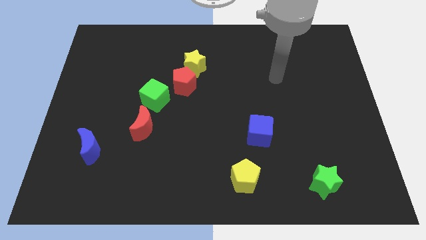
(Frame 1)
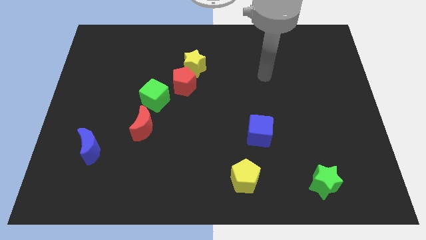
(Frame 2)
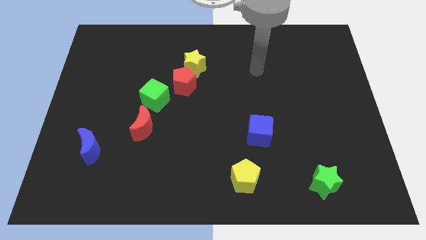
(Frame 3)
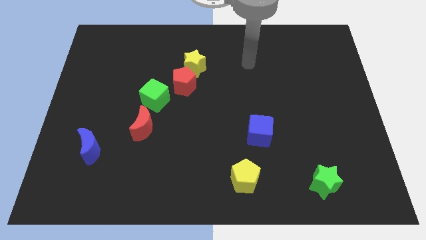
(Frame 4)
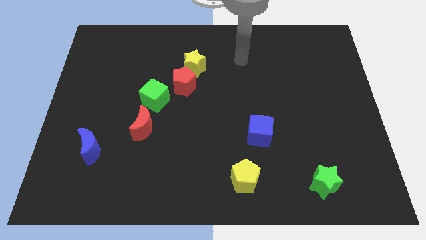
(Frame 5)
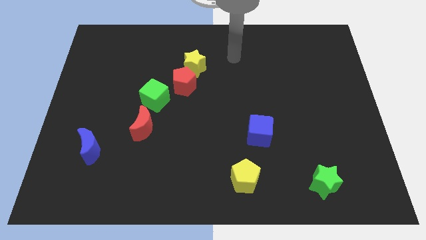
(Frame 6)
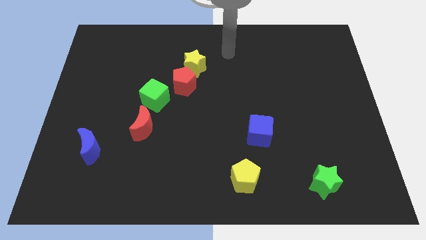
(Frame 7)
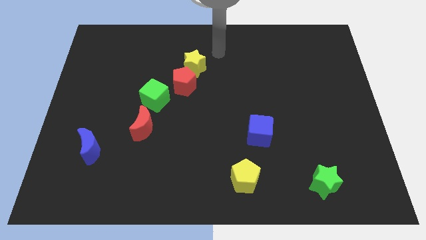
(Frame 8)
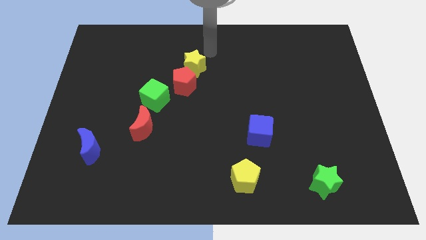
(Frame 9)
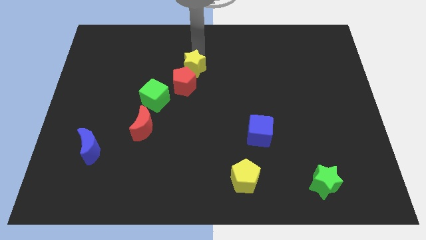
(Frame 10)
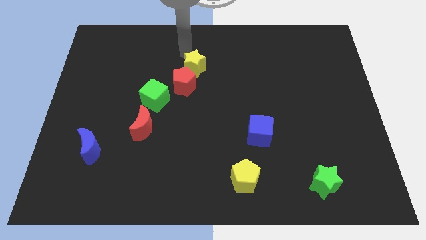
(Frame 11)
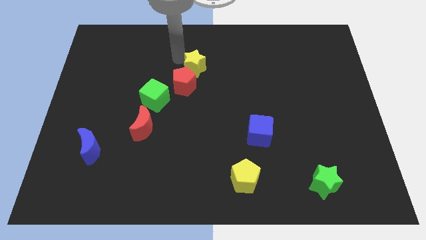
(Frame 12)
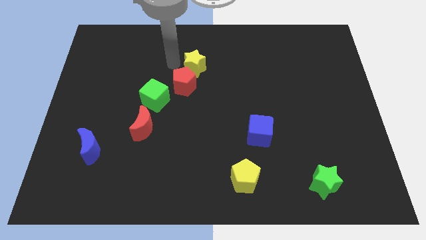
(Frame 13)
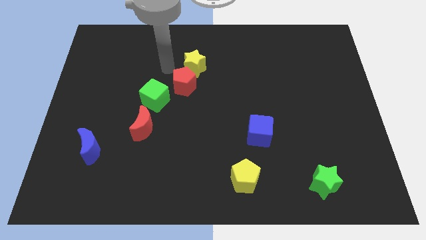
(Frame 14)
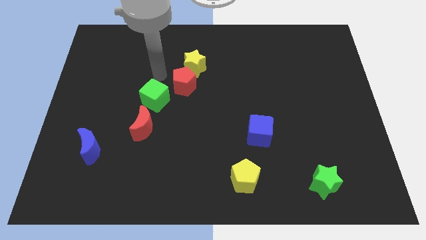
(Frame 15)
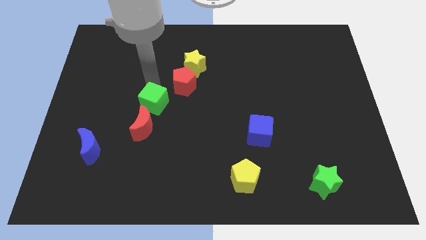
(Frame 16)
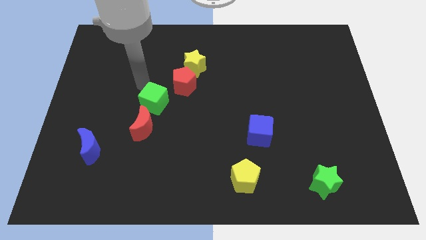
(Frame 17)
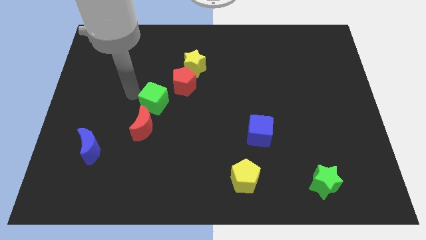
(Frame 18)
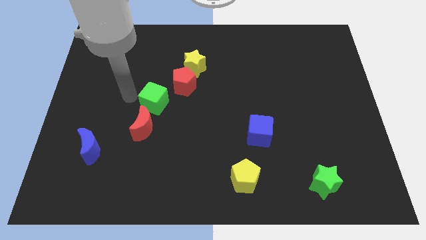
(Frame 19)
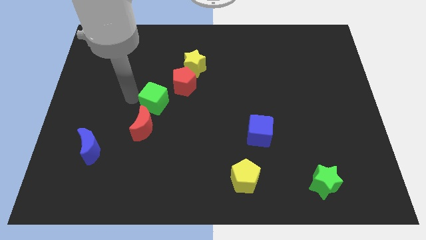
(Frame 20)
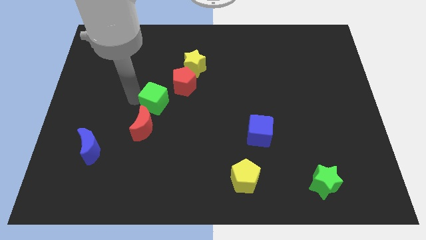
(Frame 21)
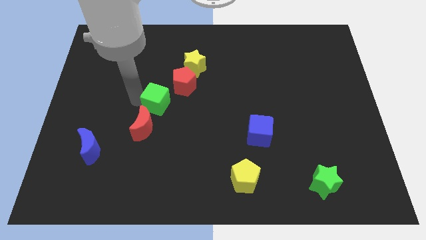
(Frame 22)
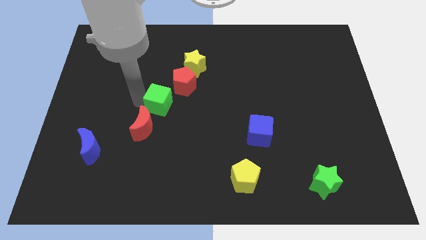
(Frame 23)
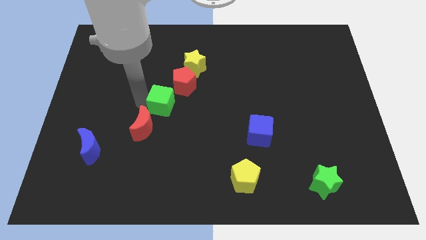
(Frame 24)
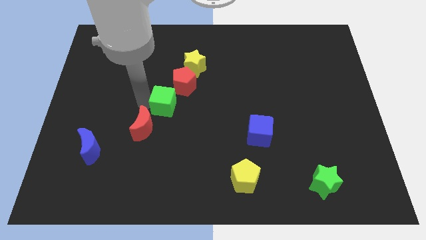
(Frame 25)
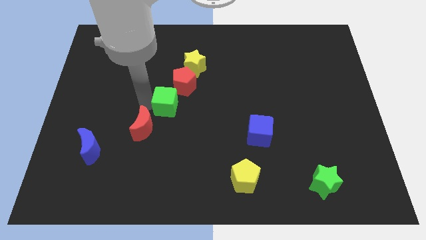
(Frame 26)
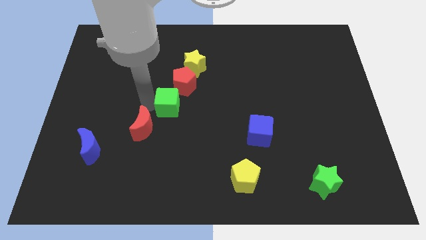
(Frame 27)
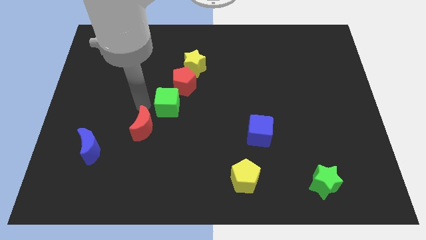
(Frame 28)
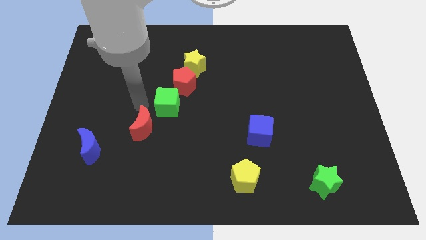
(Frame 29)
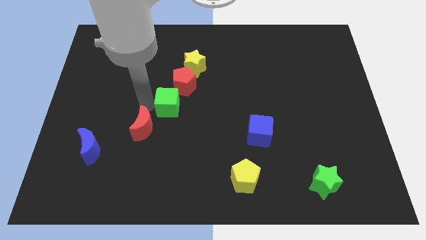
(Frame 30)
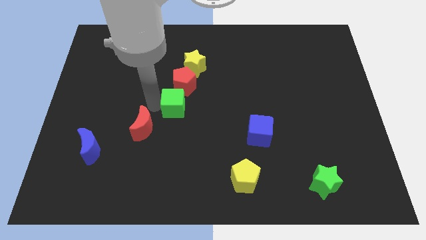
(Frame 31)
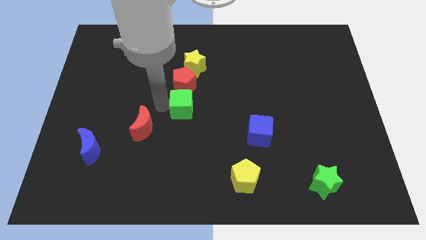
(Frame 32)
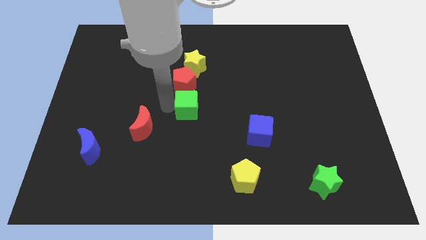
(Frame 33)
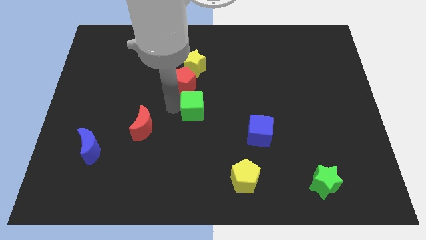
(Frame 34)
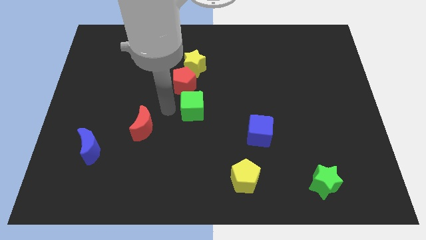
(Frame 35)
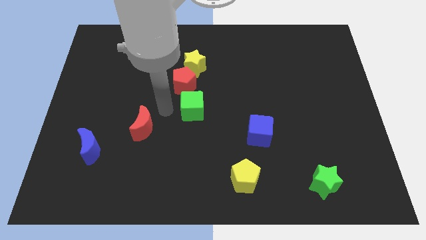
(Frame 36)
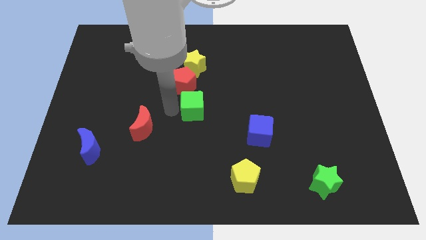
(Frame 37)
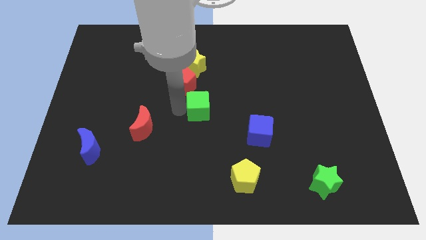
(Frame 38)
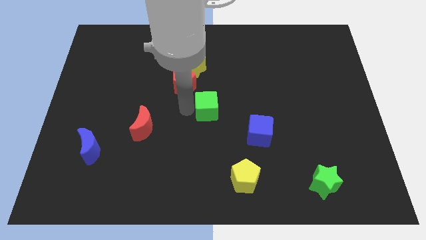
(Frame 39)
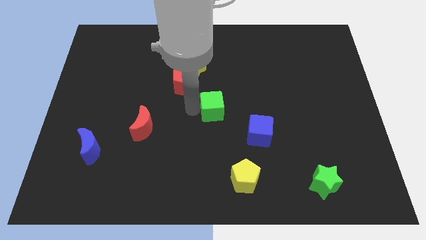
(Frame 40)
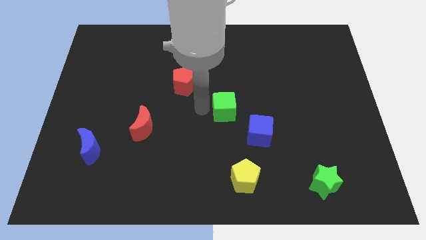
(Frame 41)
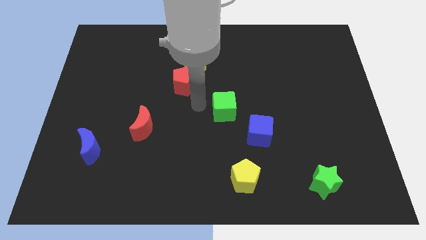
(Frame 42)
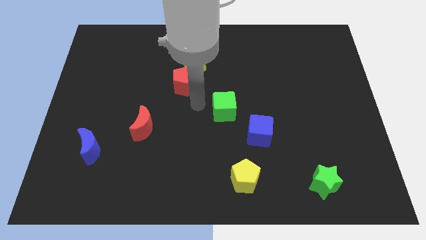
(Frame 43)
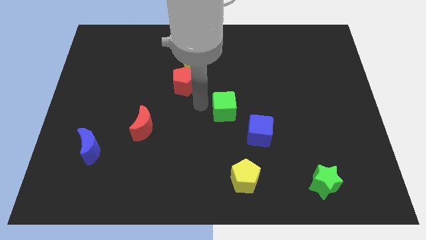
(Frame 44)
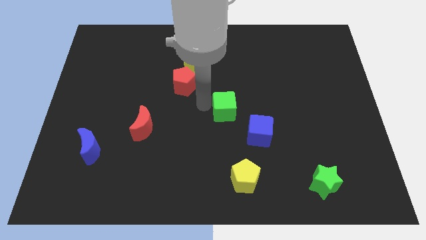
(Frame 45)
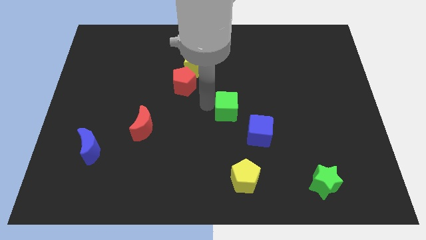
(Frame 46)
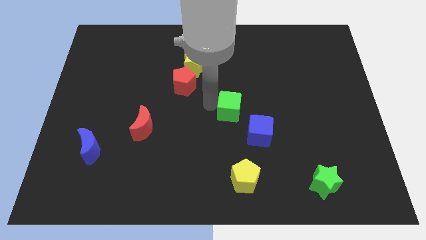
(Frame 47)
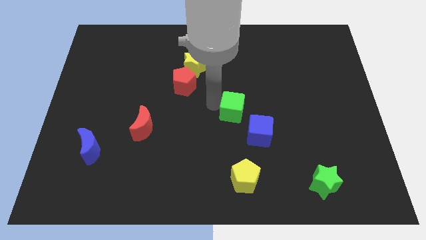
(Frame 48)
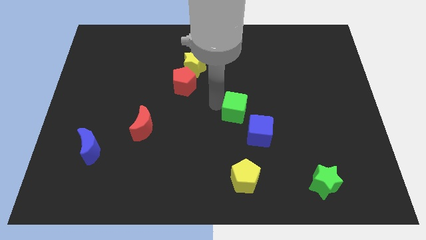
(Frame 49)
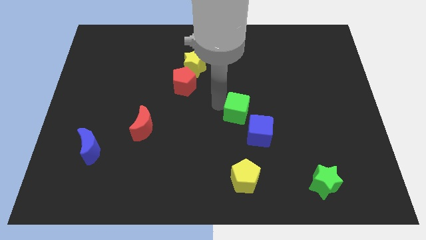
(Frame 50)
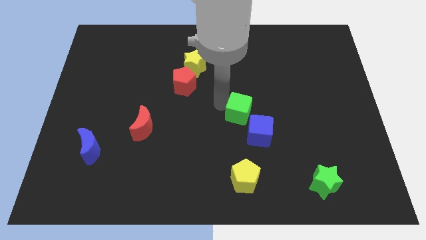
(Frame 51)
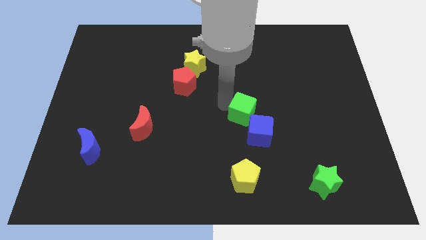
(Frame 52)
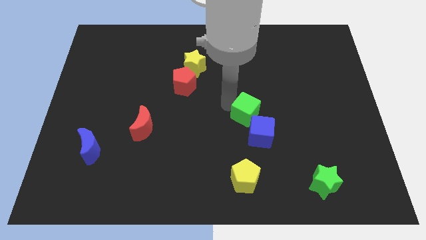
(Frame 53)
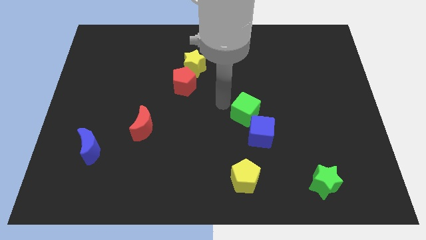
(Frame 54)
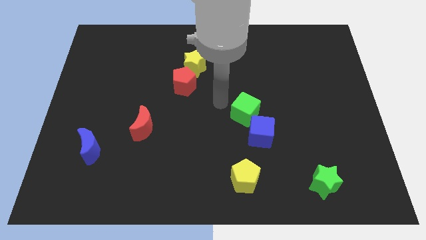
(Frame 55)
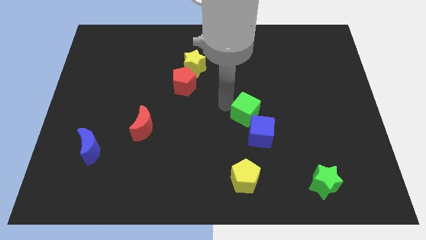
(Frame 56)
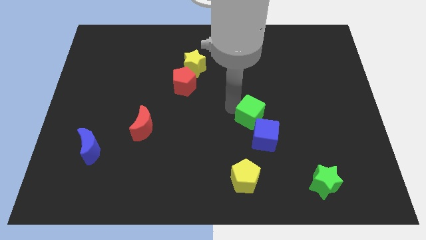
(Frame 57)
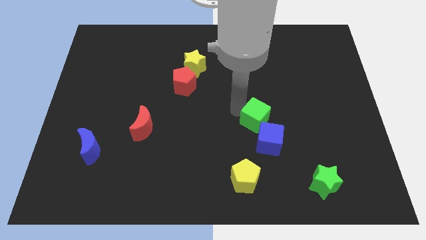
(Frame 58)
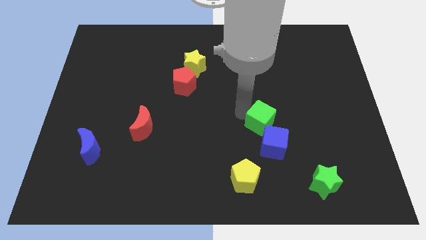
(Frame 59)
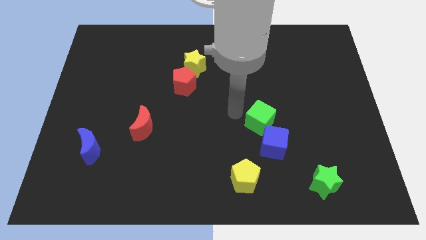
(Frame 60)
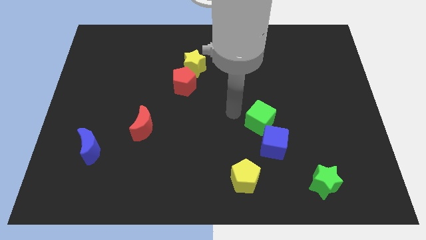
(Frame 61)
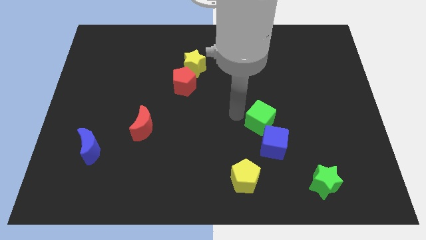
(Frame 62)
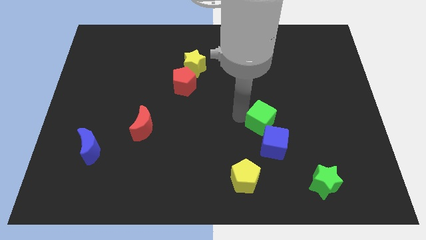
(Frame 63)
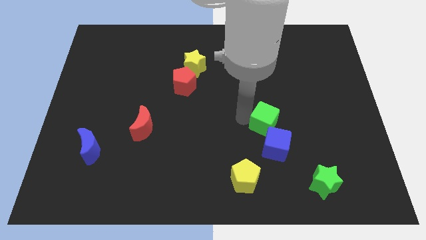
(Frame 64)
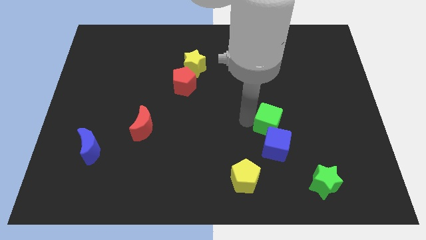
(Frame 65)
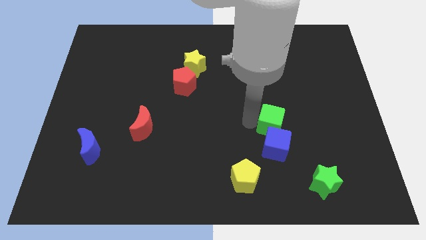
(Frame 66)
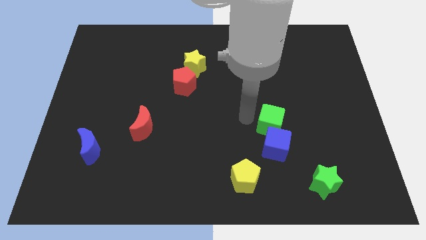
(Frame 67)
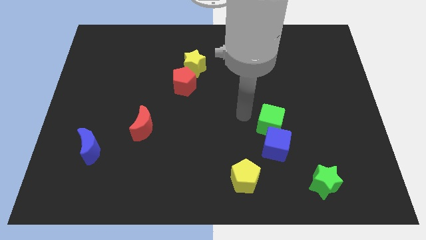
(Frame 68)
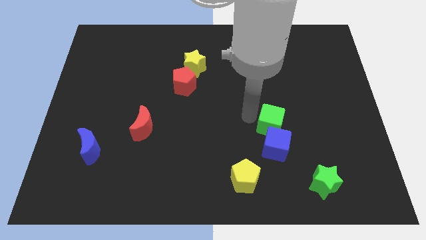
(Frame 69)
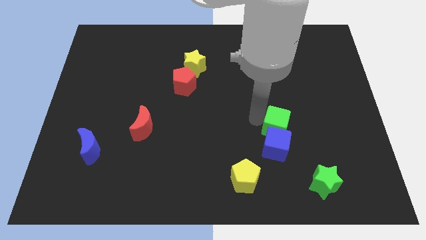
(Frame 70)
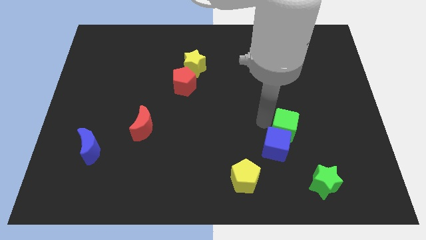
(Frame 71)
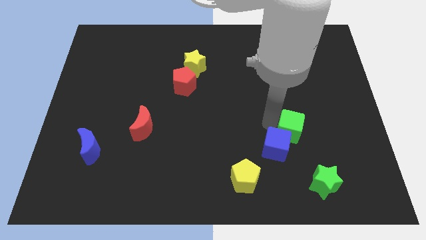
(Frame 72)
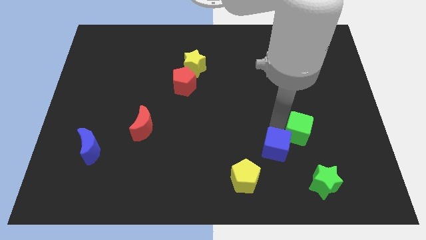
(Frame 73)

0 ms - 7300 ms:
put the green cube to the top of the green star
